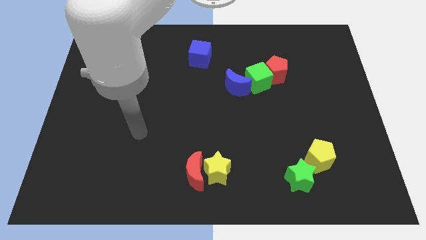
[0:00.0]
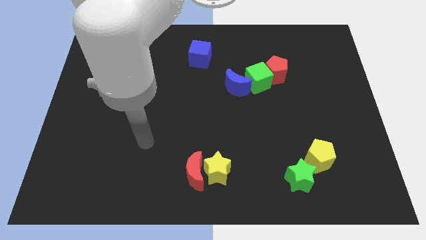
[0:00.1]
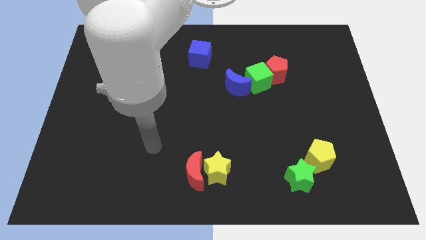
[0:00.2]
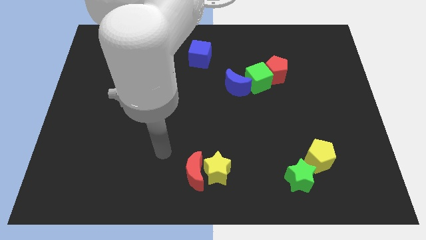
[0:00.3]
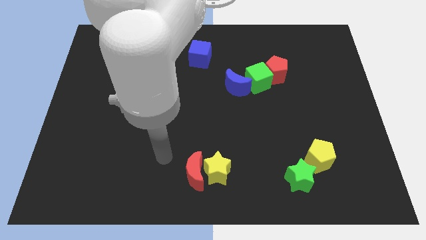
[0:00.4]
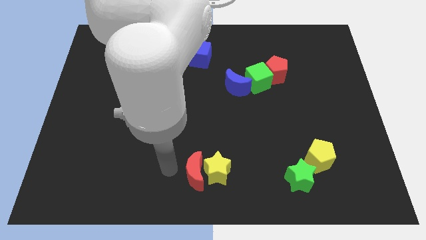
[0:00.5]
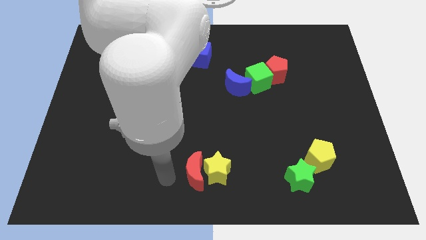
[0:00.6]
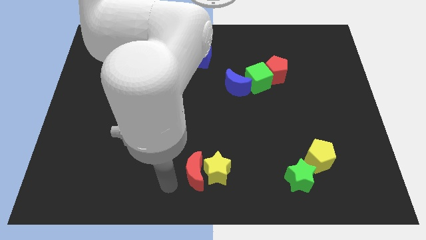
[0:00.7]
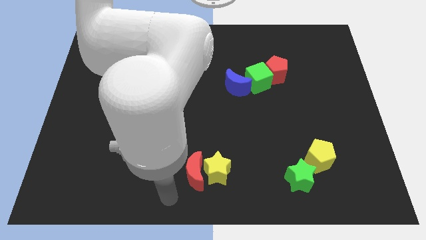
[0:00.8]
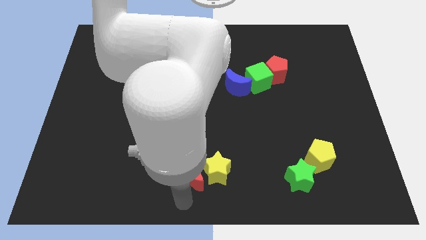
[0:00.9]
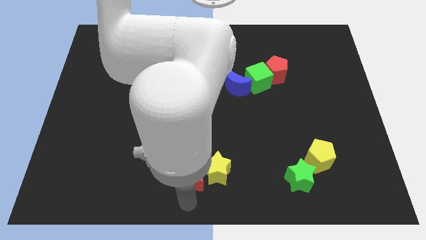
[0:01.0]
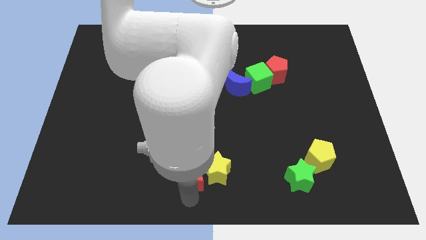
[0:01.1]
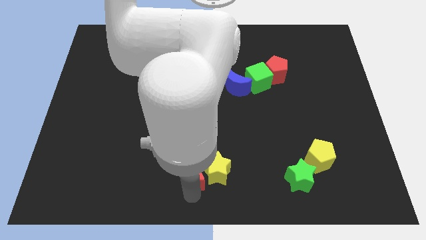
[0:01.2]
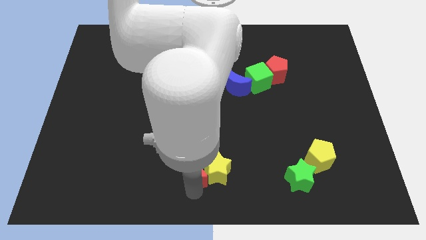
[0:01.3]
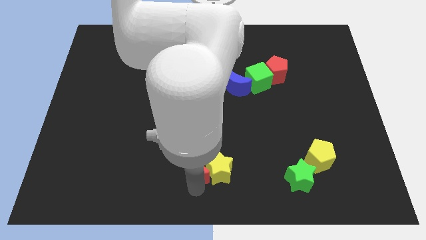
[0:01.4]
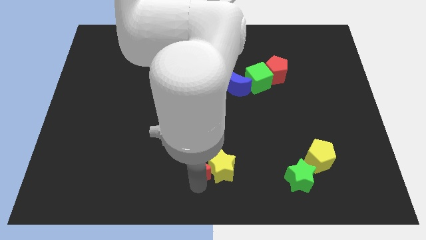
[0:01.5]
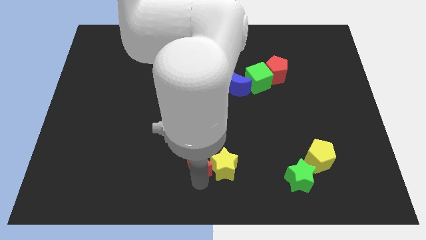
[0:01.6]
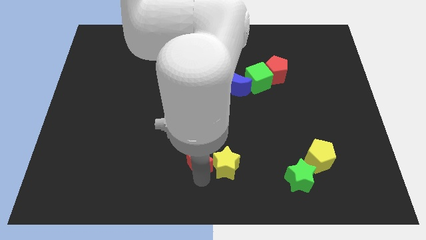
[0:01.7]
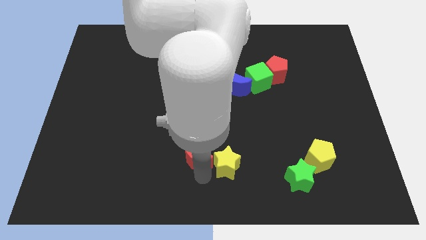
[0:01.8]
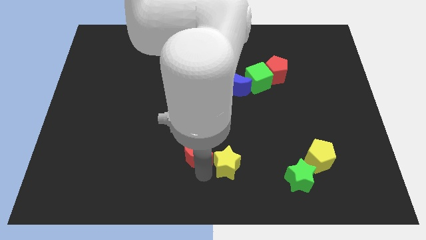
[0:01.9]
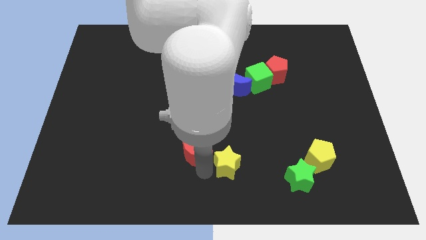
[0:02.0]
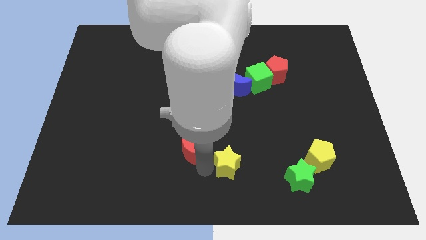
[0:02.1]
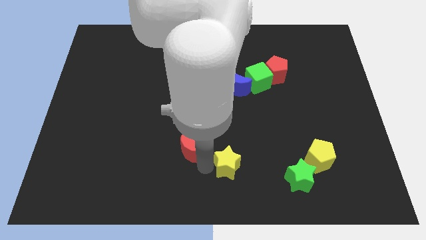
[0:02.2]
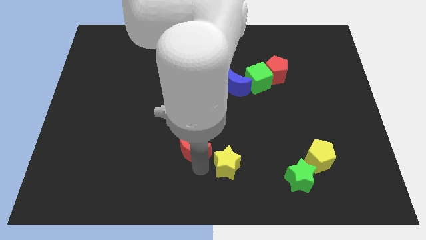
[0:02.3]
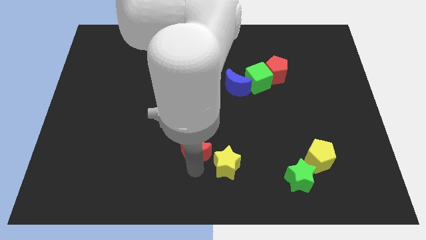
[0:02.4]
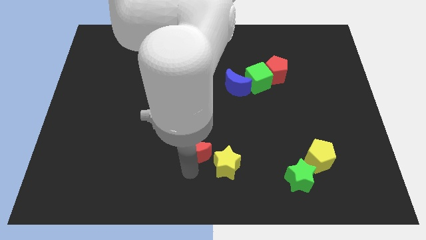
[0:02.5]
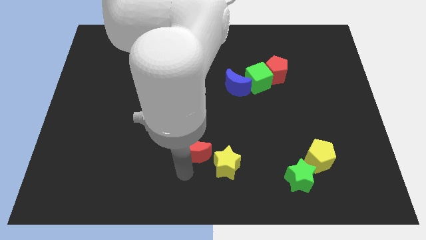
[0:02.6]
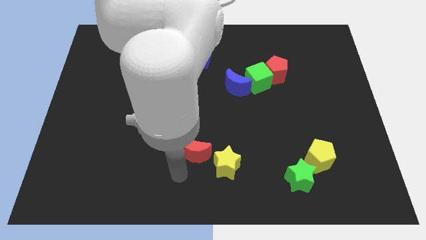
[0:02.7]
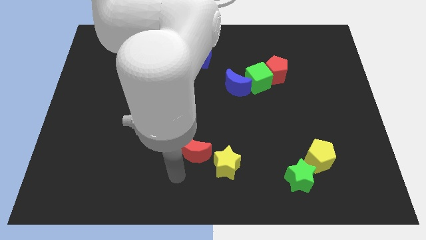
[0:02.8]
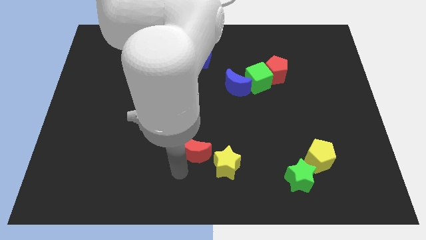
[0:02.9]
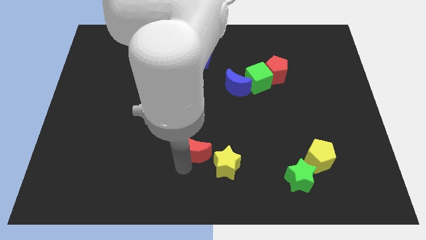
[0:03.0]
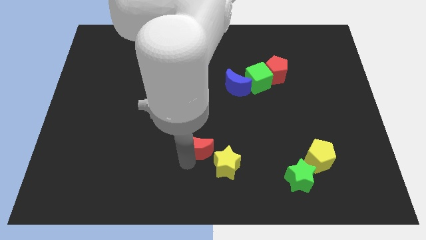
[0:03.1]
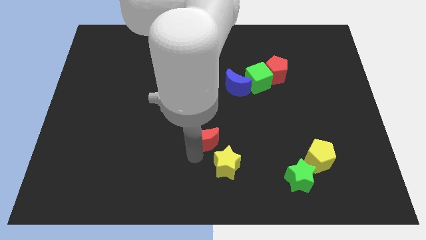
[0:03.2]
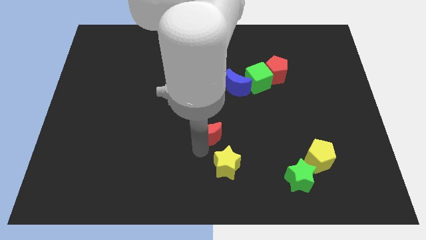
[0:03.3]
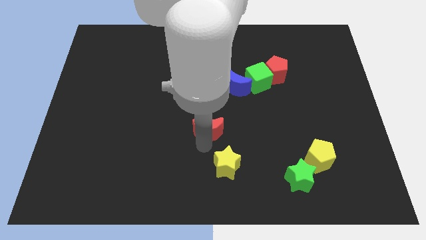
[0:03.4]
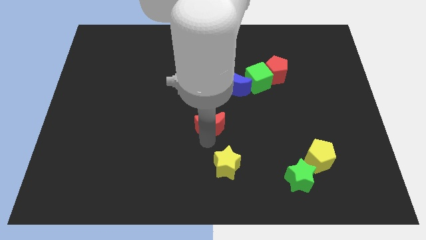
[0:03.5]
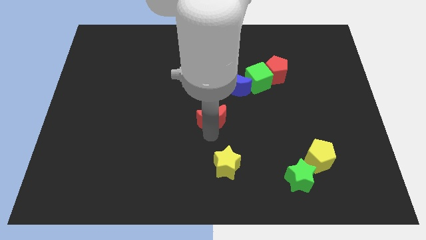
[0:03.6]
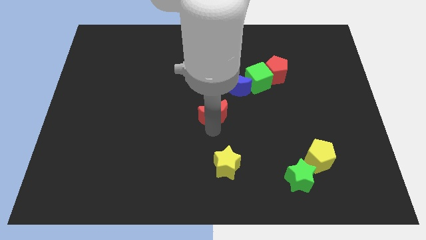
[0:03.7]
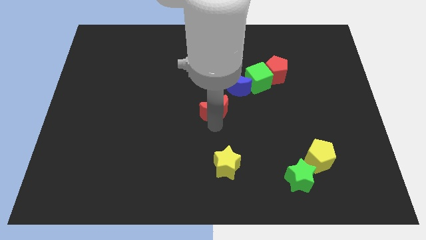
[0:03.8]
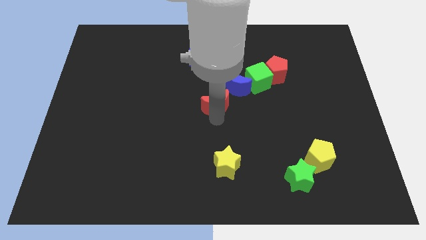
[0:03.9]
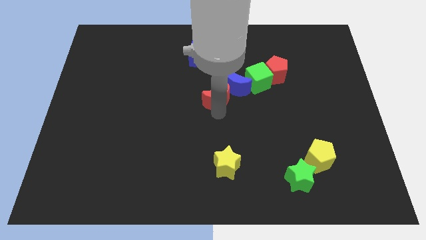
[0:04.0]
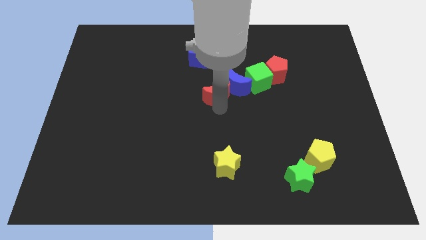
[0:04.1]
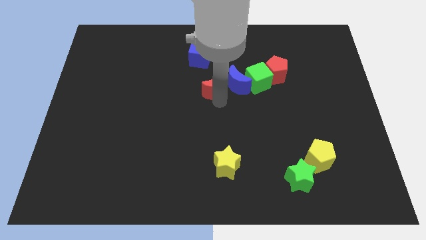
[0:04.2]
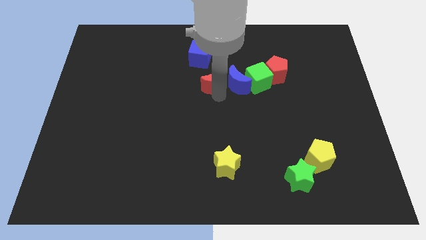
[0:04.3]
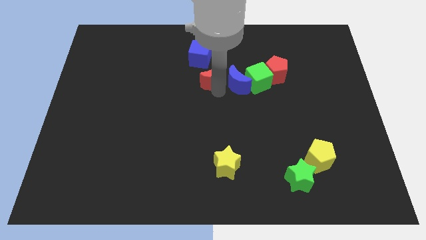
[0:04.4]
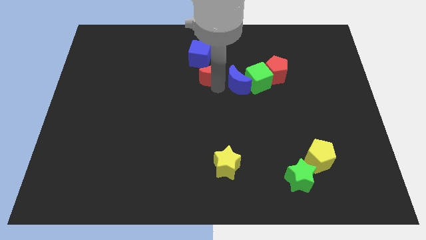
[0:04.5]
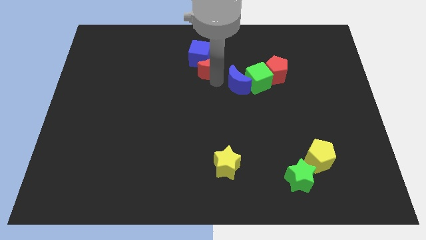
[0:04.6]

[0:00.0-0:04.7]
push the red moon close to the blue cube

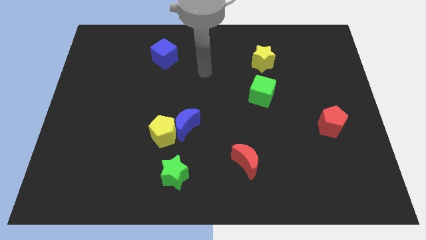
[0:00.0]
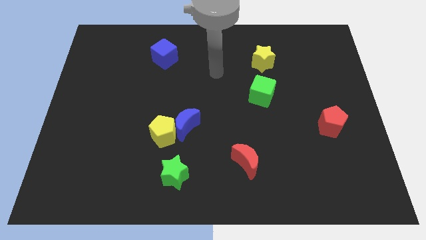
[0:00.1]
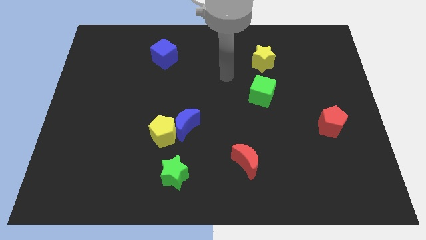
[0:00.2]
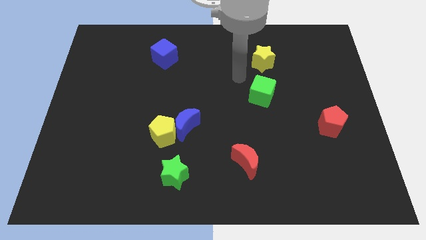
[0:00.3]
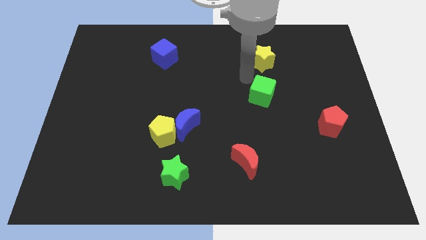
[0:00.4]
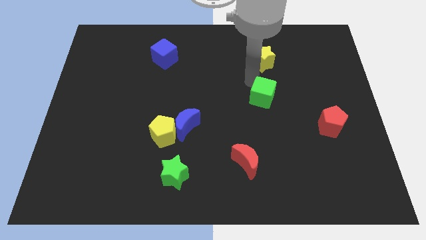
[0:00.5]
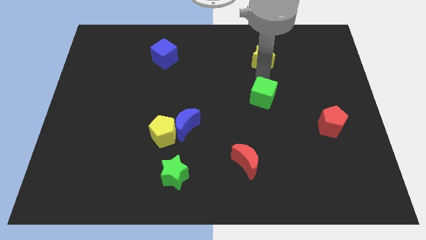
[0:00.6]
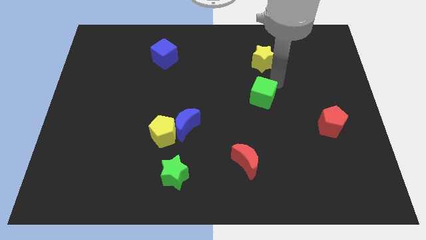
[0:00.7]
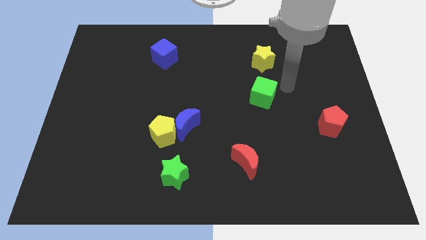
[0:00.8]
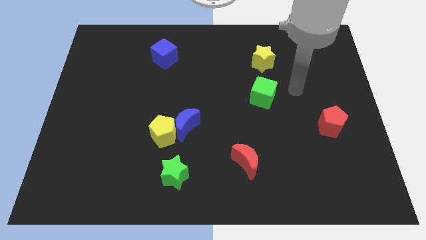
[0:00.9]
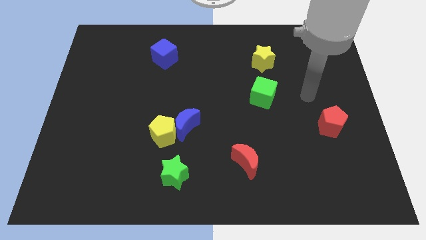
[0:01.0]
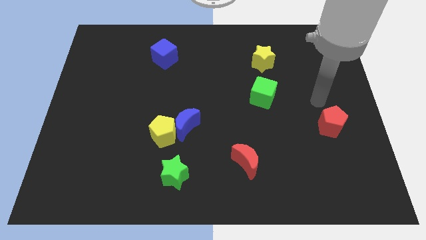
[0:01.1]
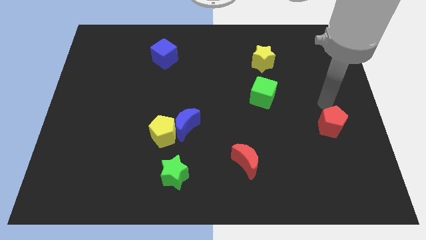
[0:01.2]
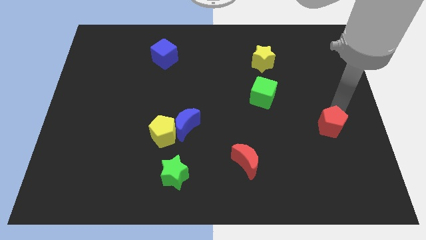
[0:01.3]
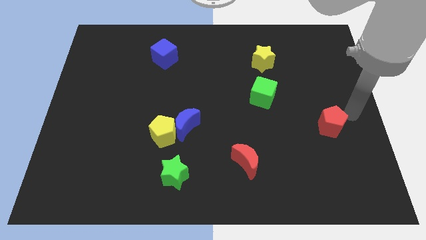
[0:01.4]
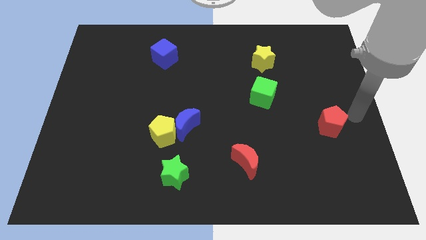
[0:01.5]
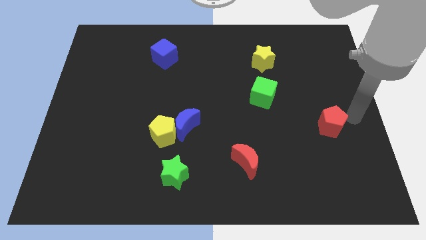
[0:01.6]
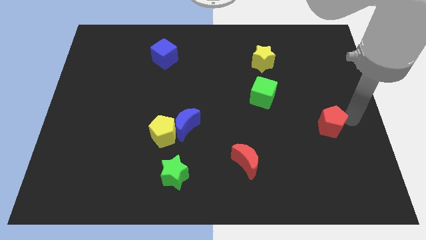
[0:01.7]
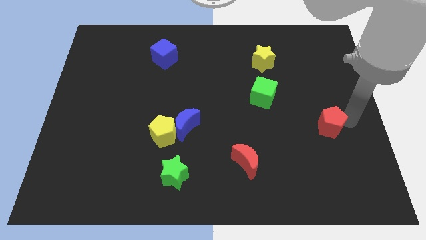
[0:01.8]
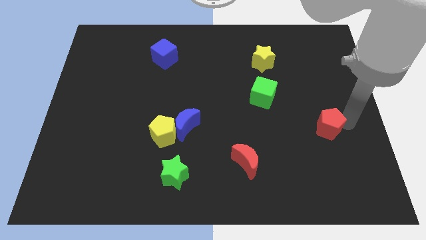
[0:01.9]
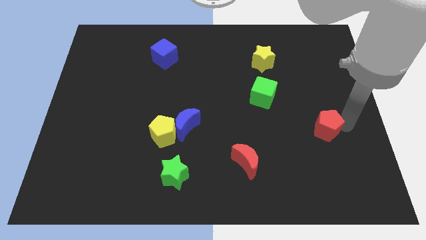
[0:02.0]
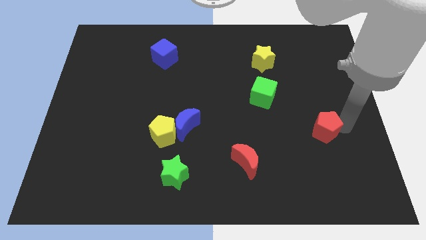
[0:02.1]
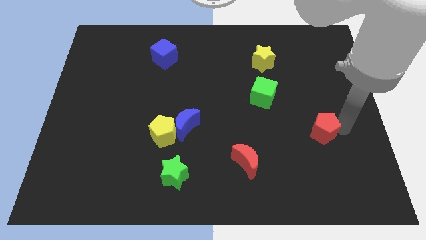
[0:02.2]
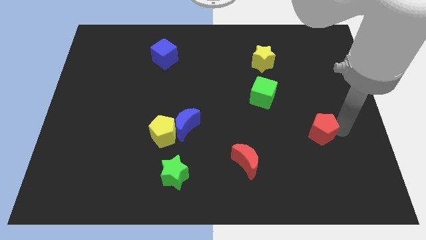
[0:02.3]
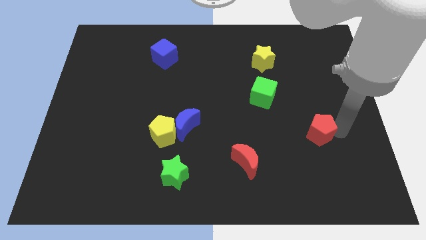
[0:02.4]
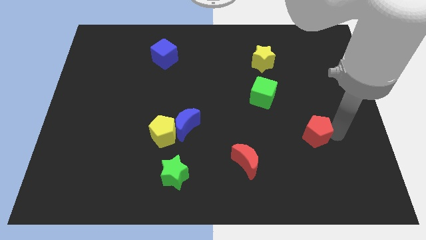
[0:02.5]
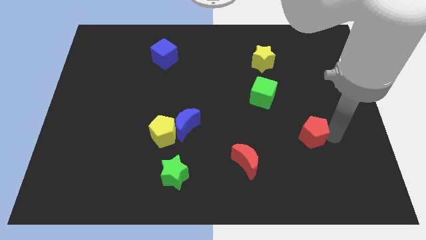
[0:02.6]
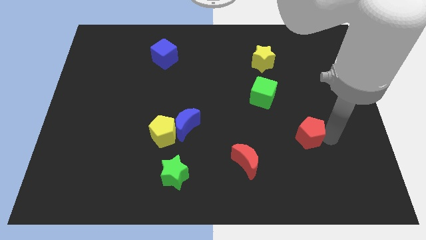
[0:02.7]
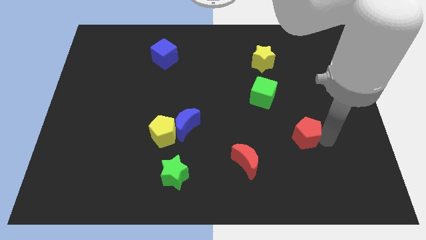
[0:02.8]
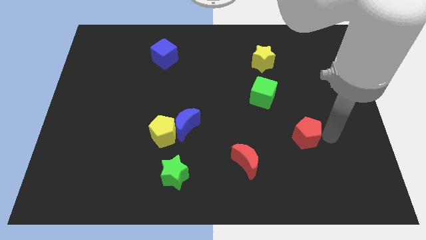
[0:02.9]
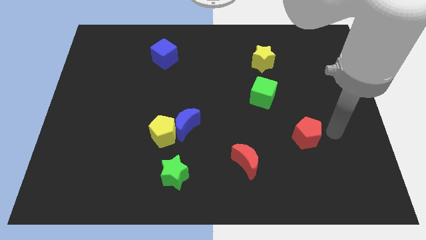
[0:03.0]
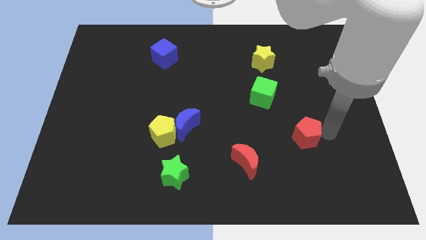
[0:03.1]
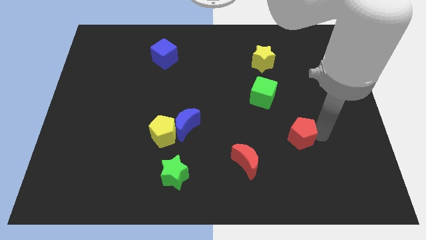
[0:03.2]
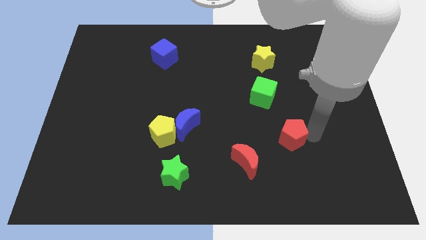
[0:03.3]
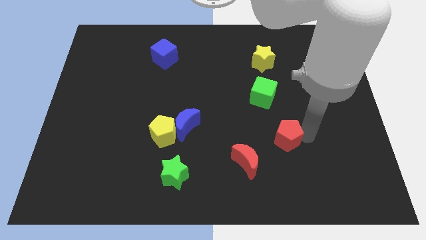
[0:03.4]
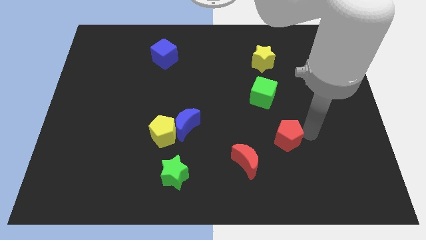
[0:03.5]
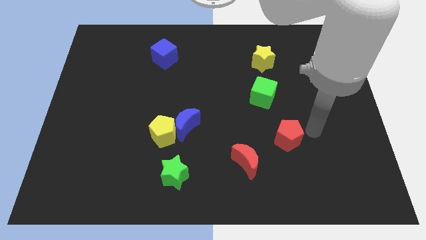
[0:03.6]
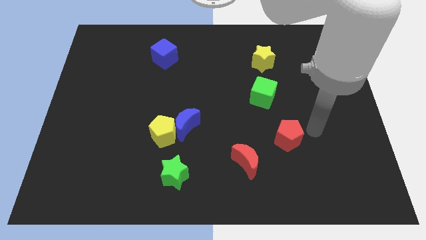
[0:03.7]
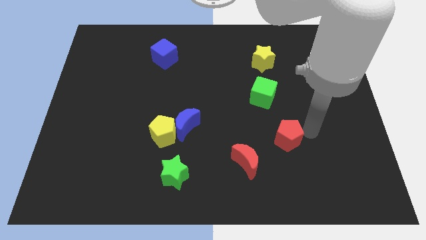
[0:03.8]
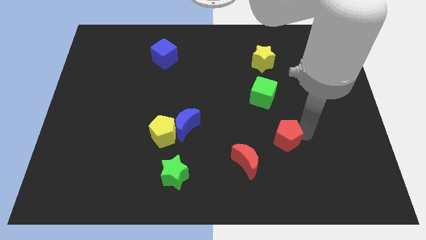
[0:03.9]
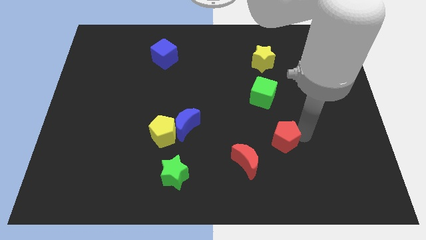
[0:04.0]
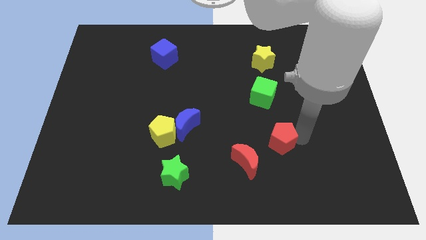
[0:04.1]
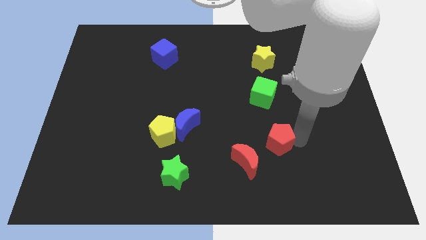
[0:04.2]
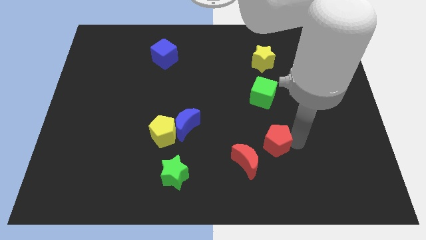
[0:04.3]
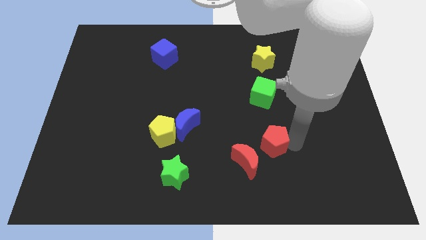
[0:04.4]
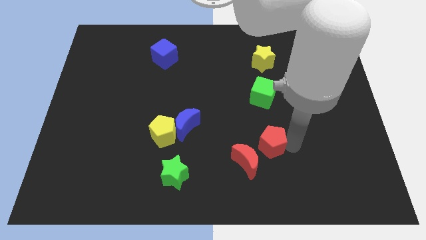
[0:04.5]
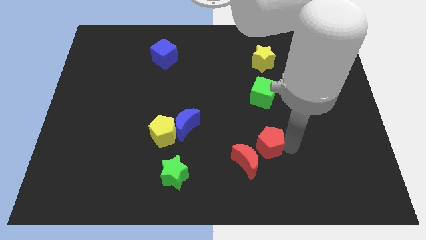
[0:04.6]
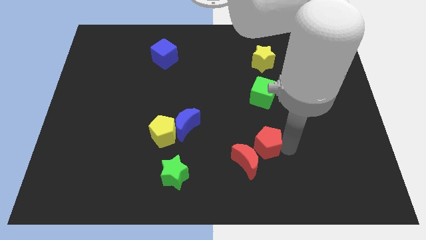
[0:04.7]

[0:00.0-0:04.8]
move the red pentagon towards the red moon
